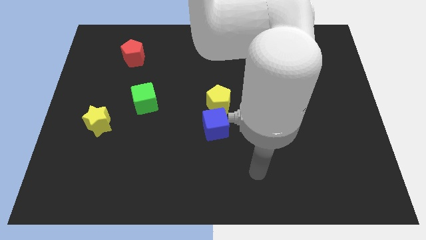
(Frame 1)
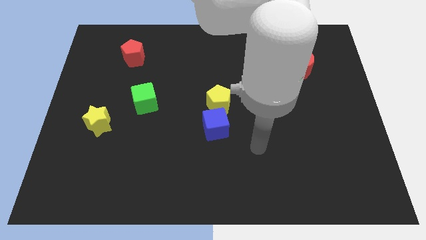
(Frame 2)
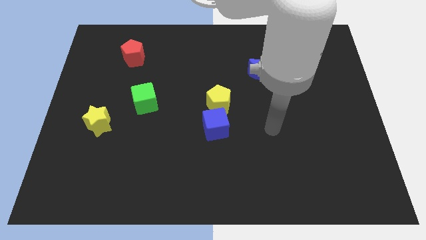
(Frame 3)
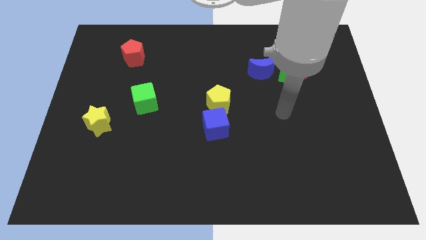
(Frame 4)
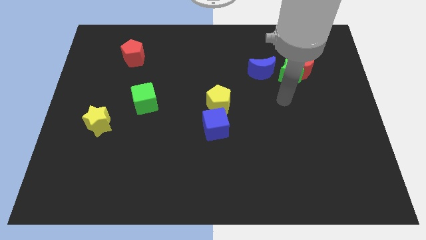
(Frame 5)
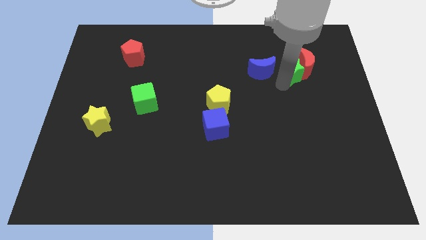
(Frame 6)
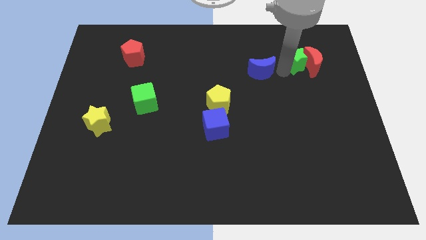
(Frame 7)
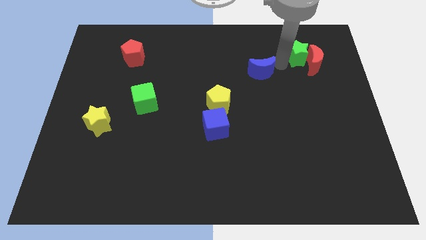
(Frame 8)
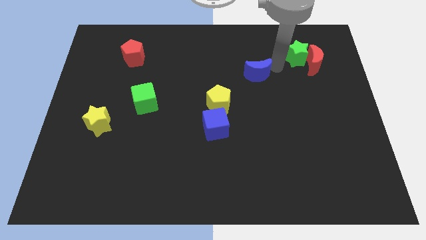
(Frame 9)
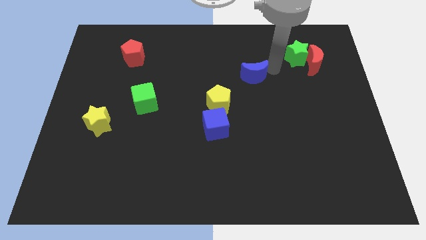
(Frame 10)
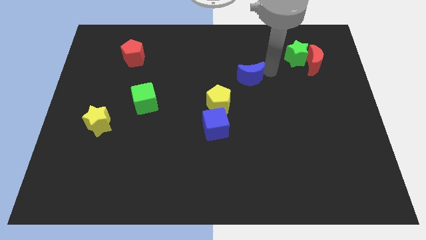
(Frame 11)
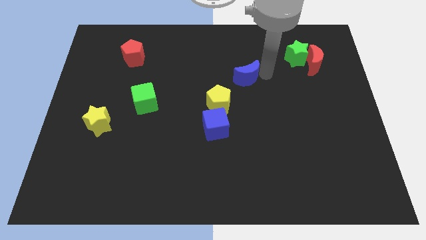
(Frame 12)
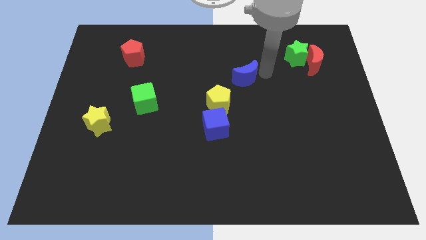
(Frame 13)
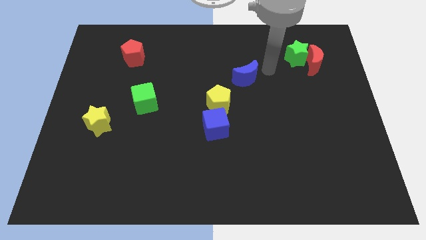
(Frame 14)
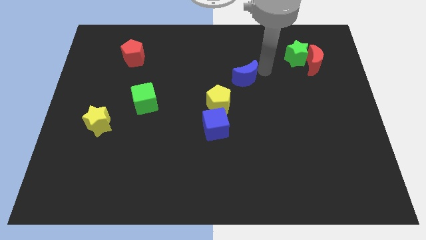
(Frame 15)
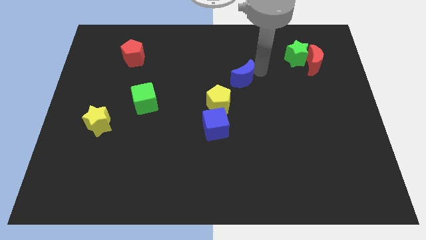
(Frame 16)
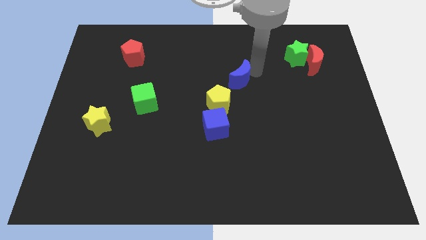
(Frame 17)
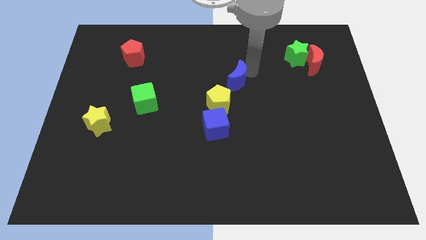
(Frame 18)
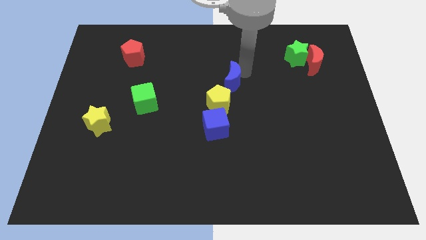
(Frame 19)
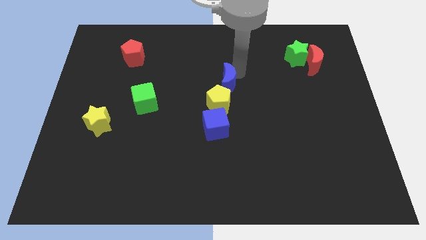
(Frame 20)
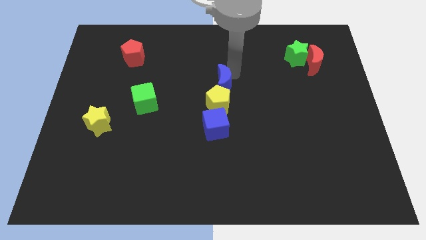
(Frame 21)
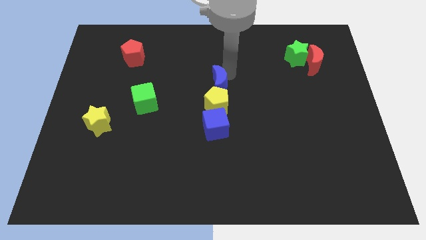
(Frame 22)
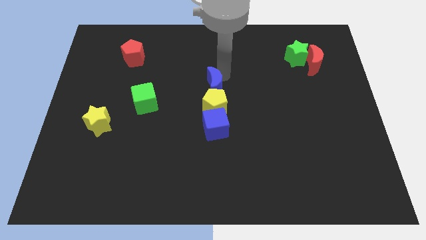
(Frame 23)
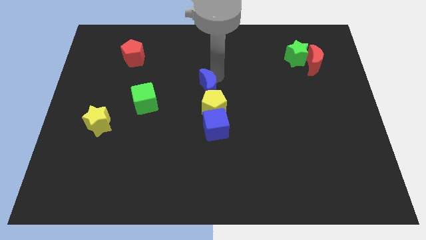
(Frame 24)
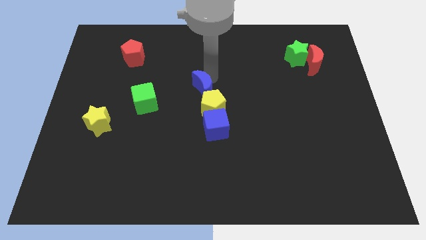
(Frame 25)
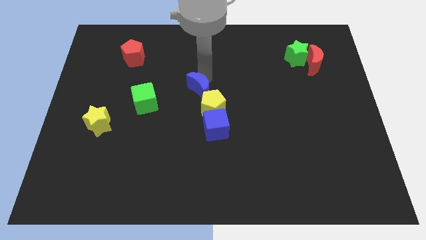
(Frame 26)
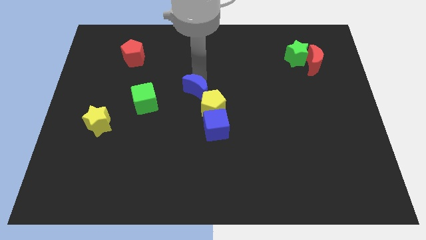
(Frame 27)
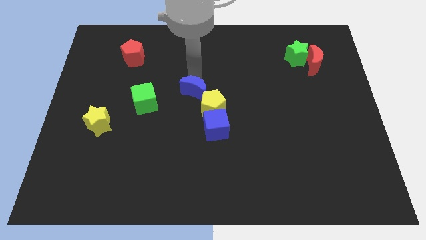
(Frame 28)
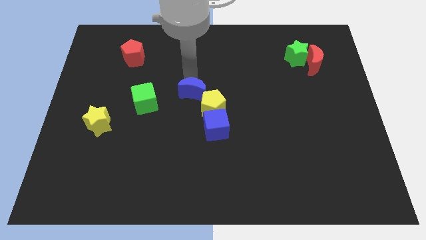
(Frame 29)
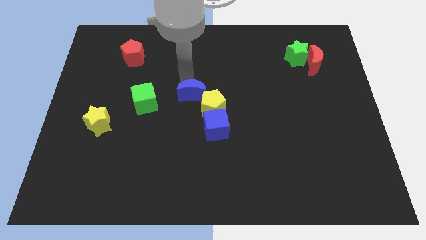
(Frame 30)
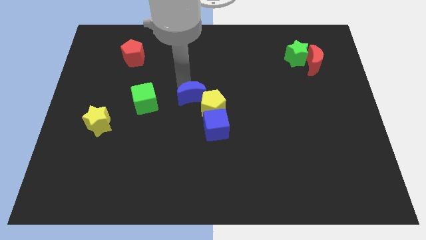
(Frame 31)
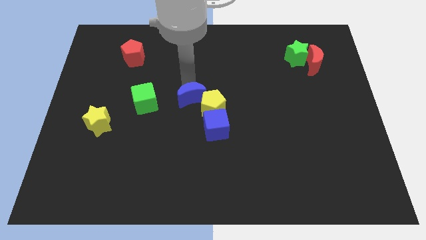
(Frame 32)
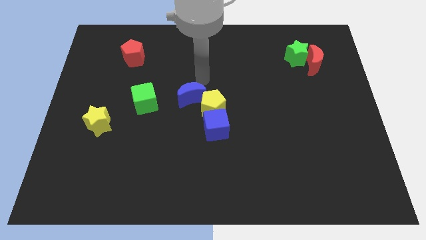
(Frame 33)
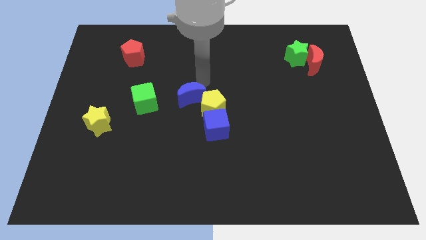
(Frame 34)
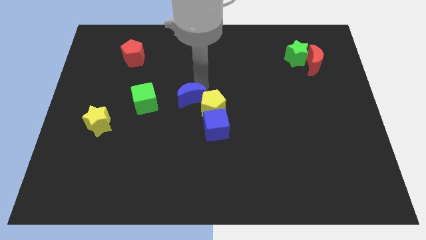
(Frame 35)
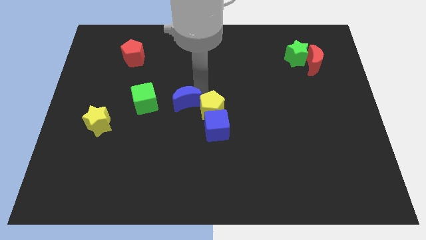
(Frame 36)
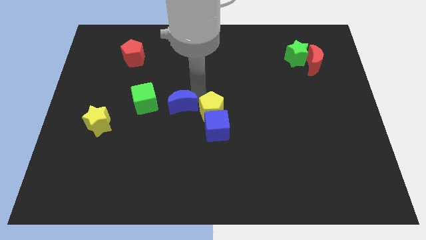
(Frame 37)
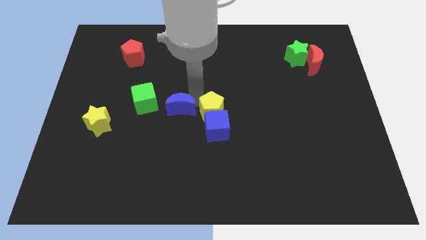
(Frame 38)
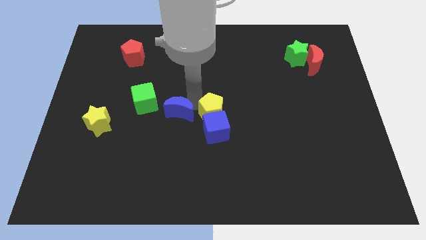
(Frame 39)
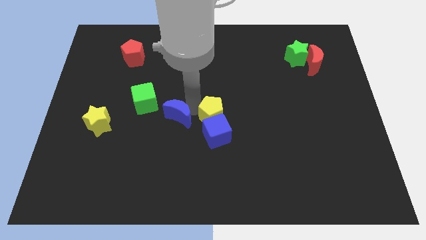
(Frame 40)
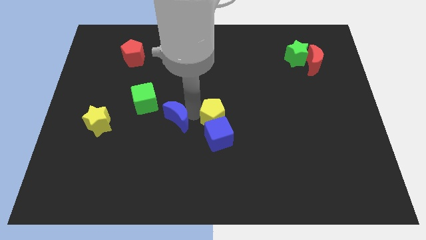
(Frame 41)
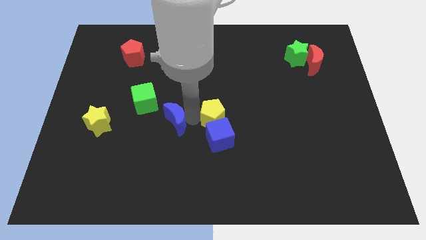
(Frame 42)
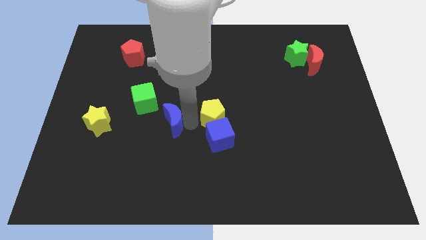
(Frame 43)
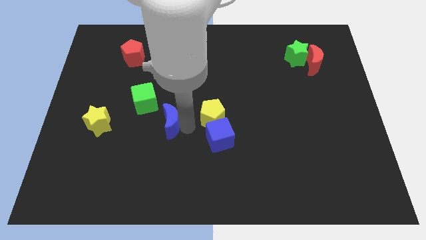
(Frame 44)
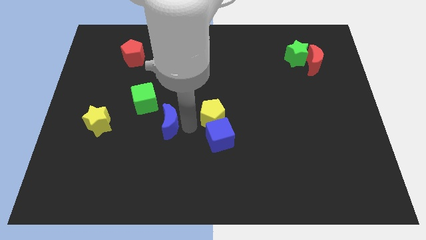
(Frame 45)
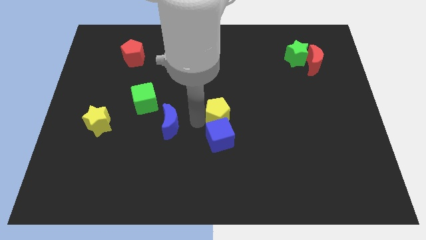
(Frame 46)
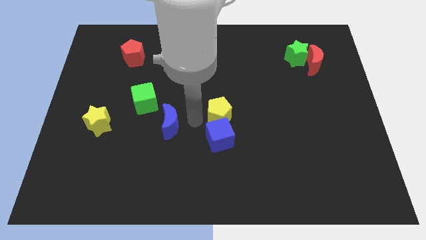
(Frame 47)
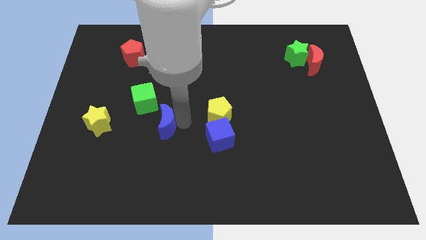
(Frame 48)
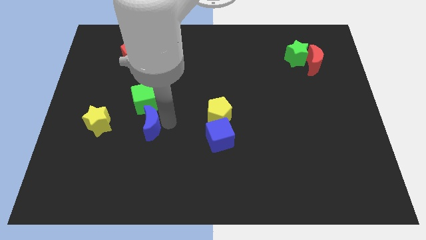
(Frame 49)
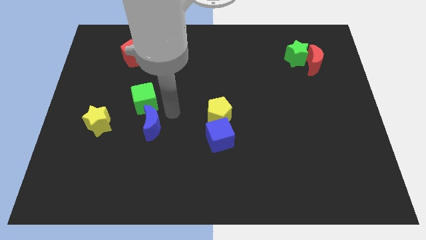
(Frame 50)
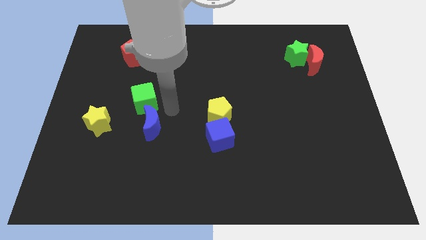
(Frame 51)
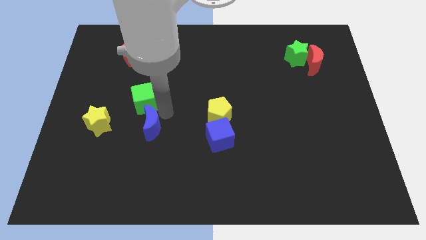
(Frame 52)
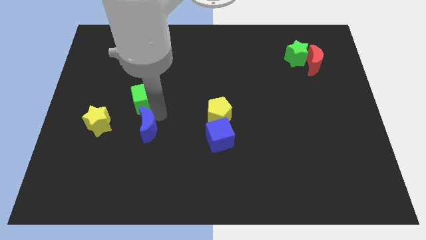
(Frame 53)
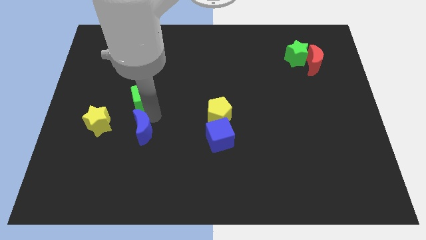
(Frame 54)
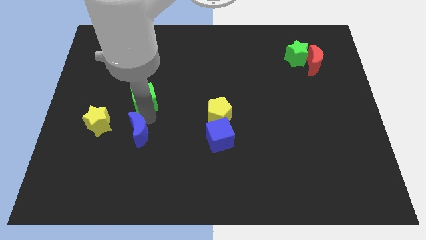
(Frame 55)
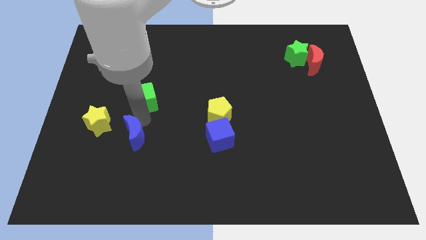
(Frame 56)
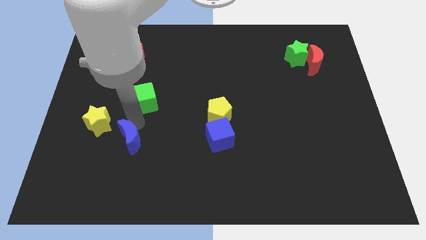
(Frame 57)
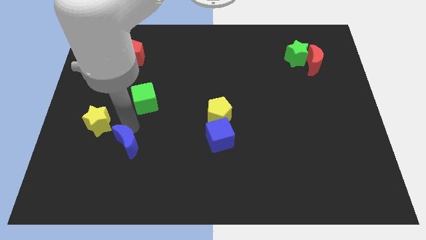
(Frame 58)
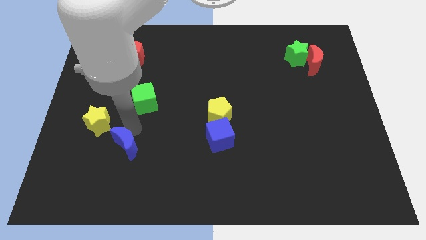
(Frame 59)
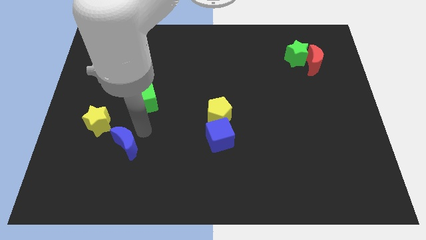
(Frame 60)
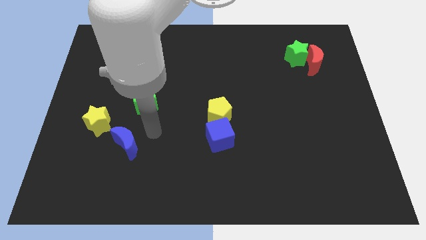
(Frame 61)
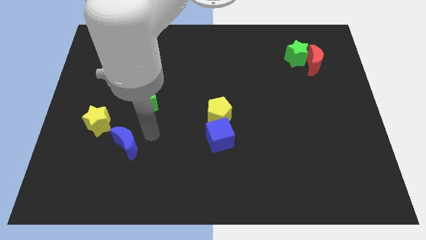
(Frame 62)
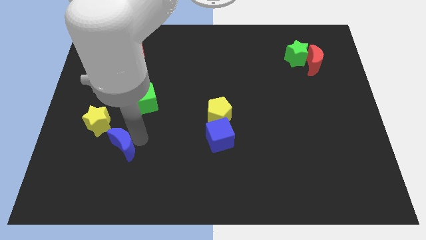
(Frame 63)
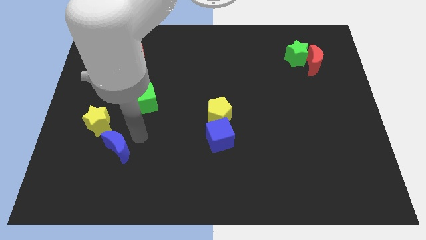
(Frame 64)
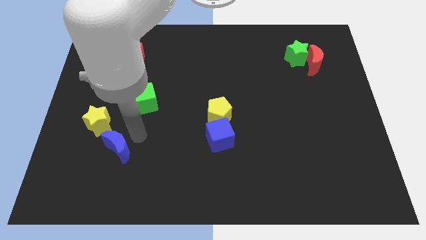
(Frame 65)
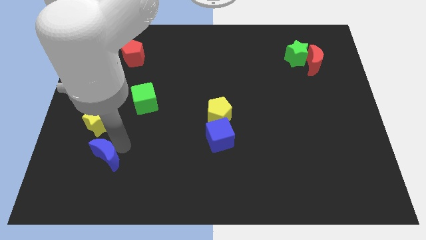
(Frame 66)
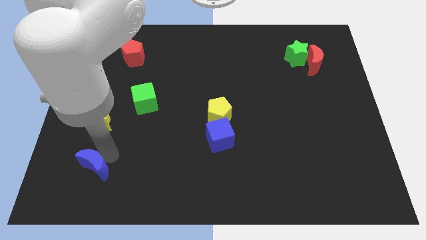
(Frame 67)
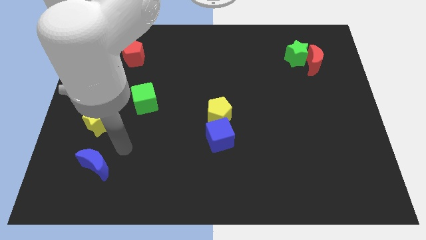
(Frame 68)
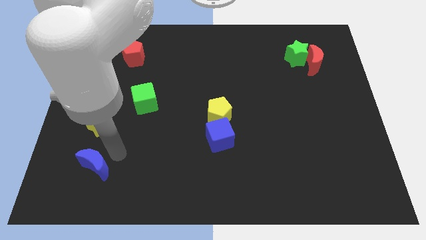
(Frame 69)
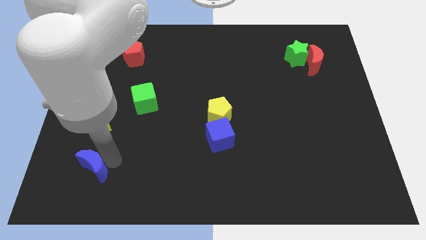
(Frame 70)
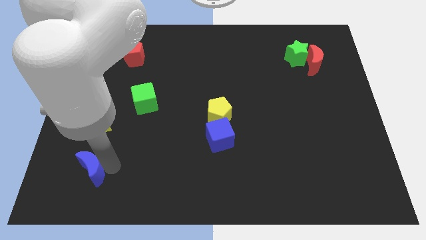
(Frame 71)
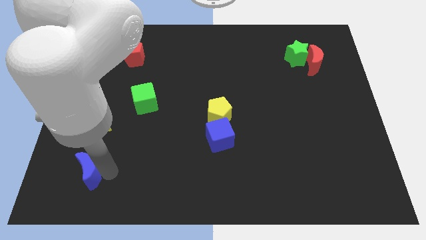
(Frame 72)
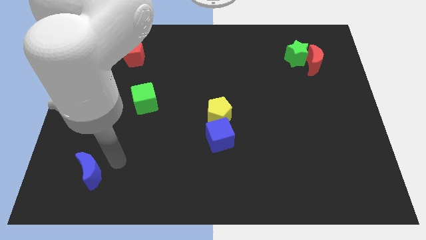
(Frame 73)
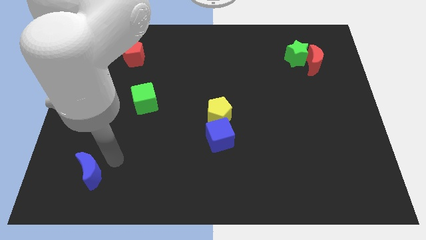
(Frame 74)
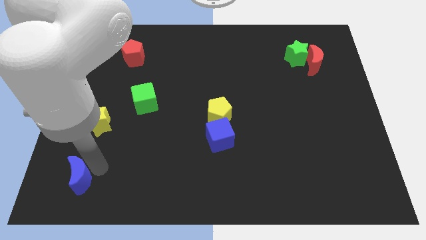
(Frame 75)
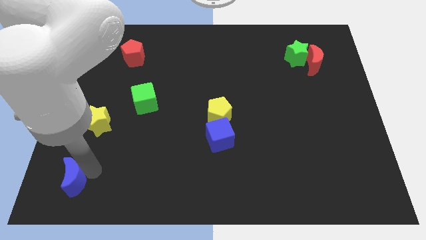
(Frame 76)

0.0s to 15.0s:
put the blue moon to the bottom left of the board
